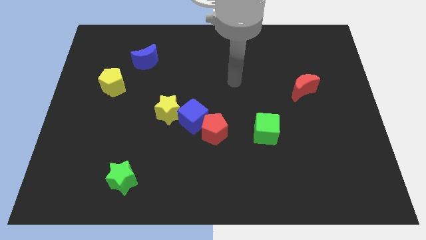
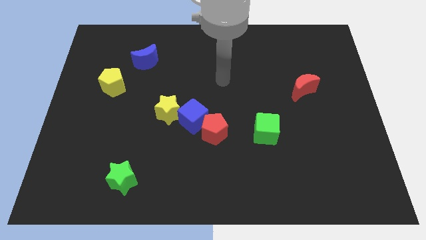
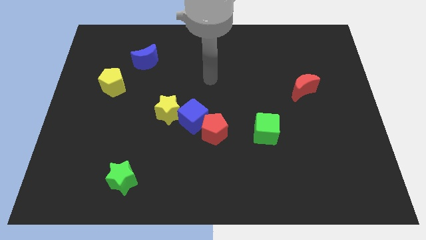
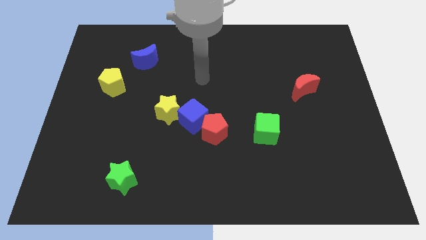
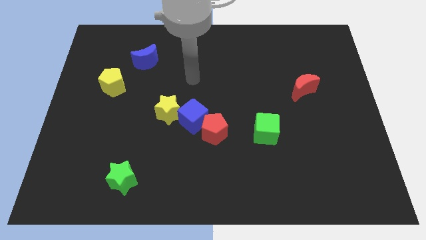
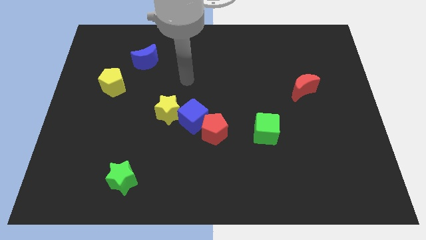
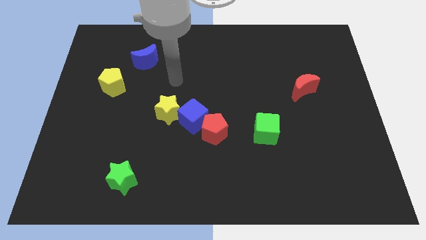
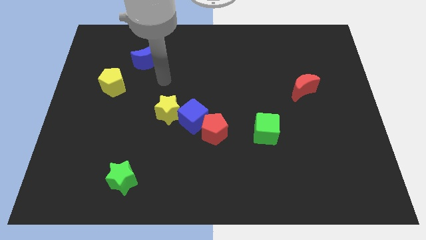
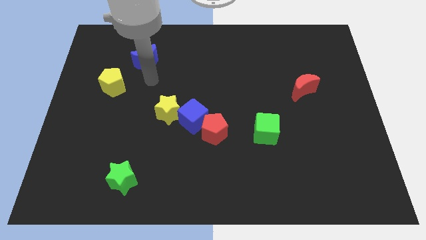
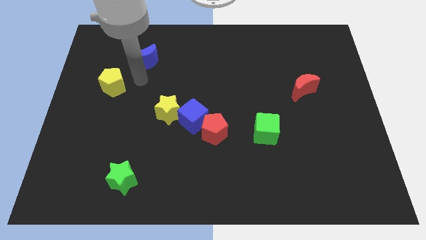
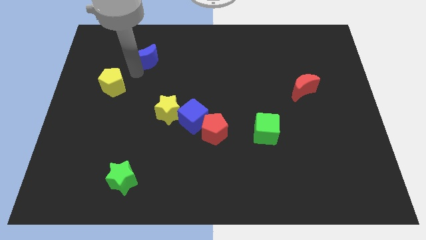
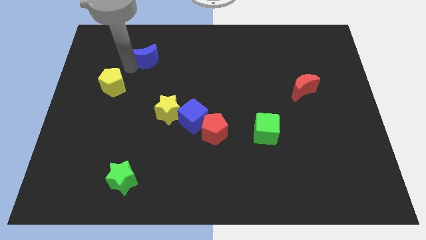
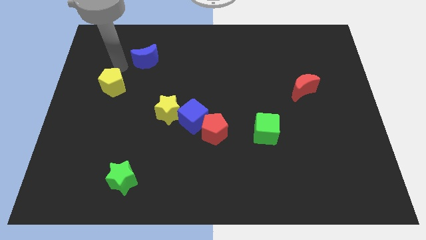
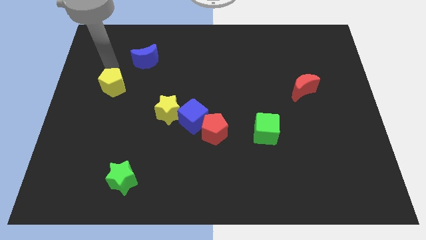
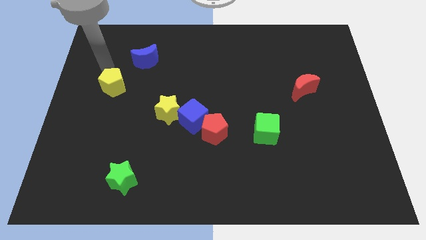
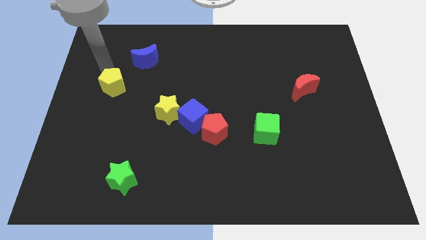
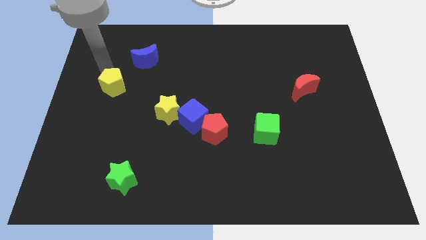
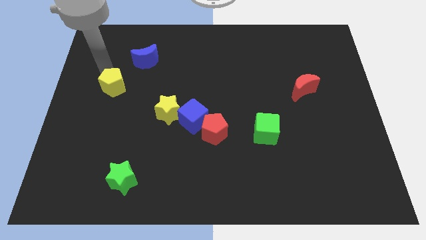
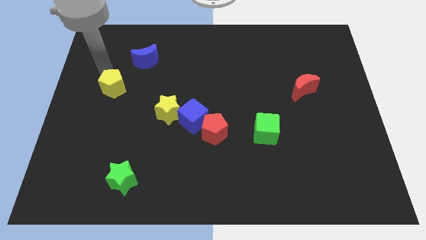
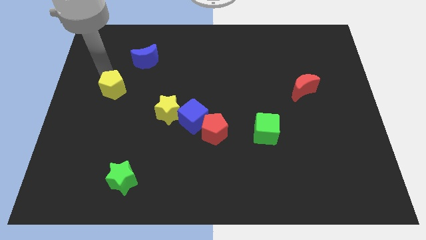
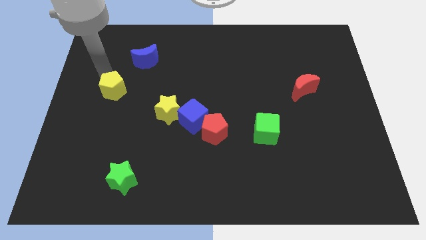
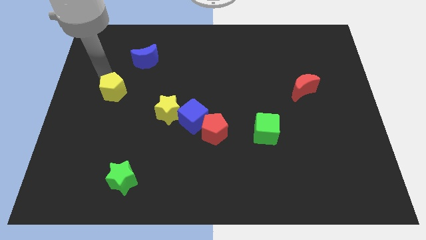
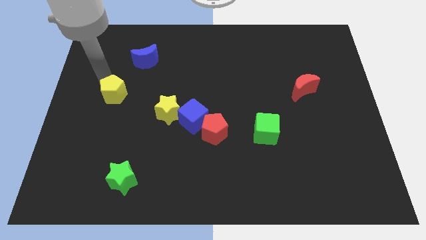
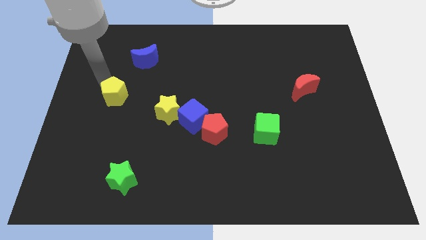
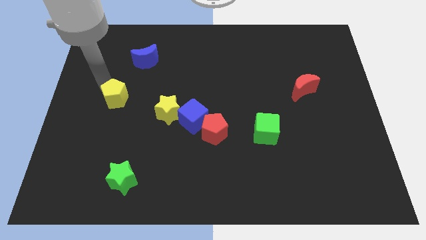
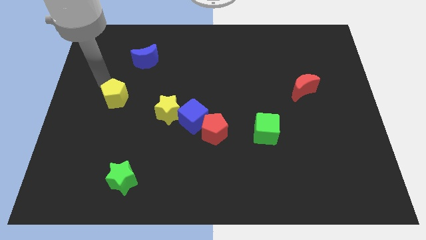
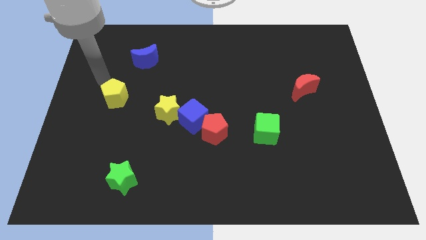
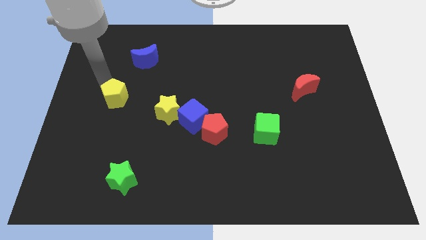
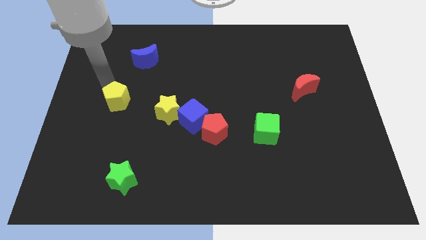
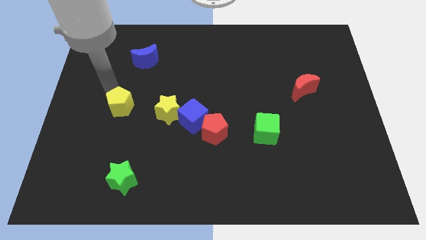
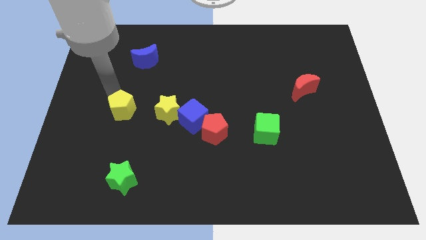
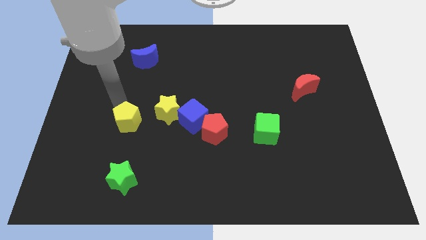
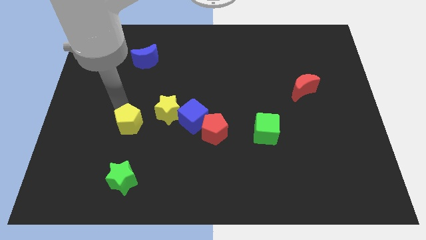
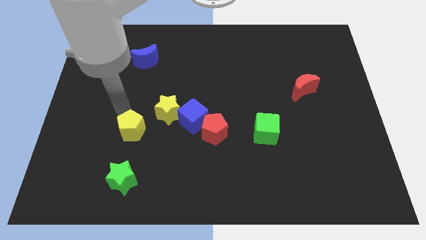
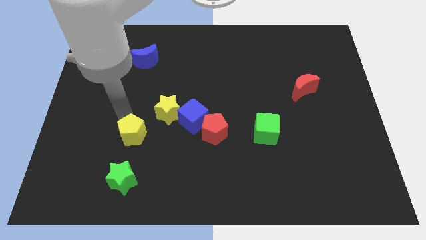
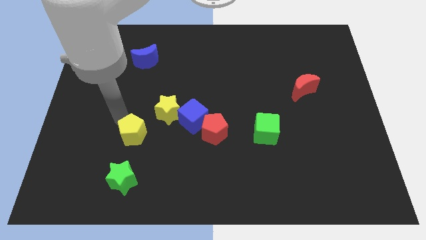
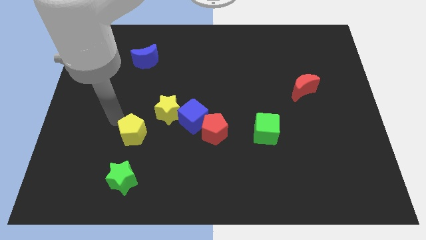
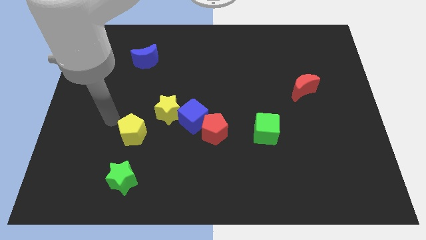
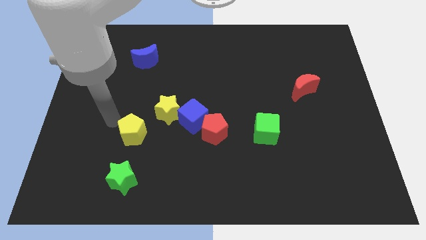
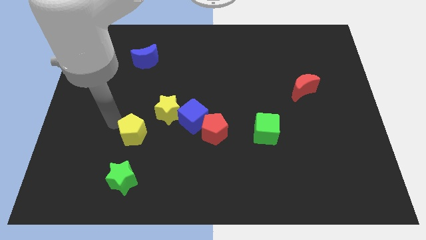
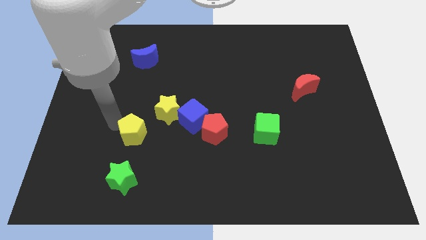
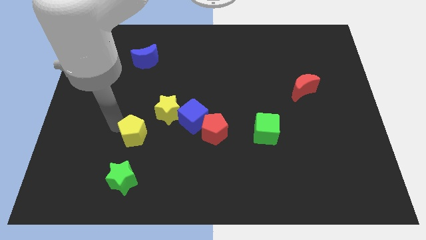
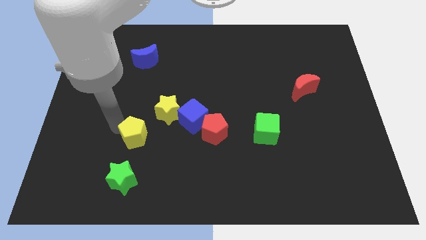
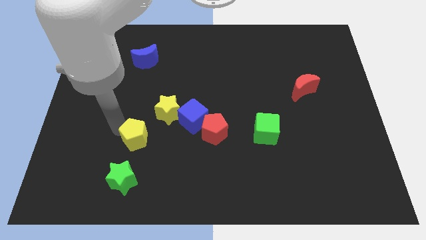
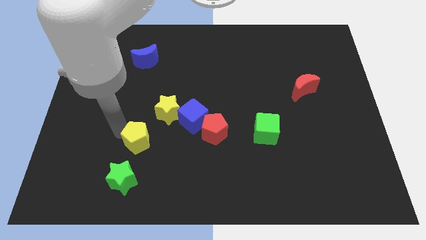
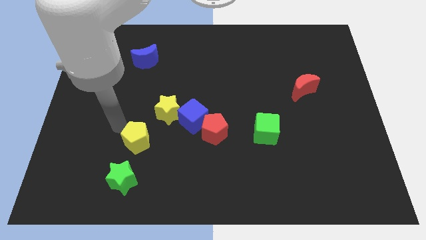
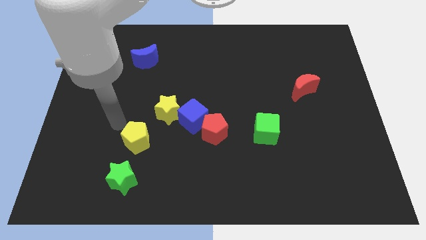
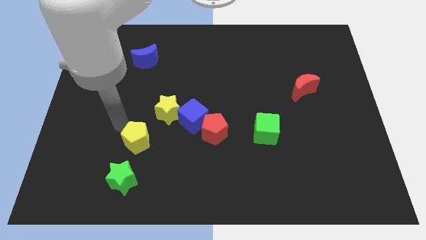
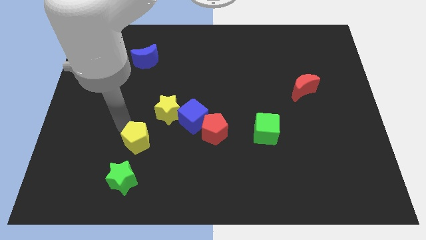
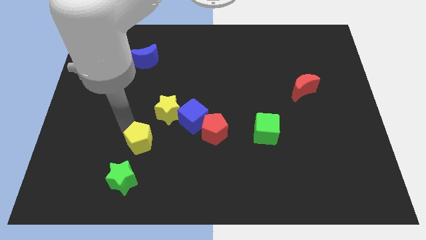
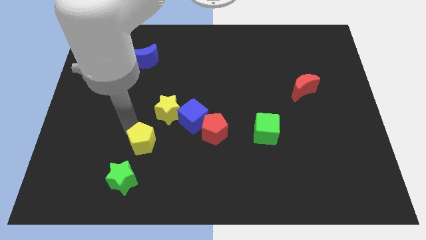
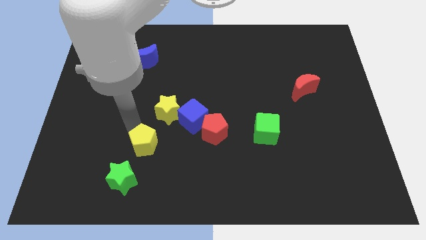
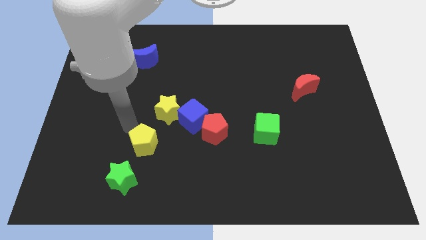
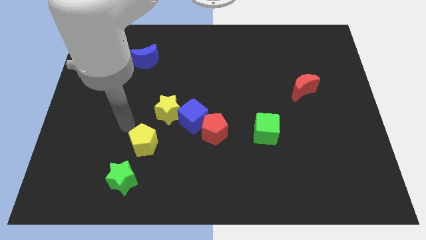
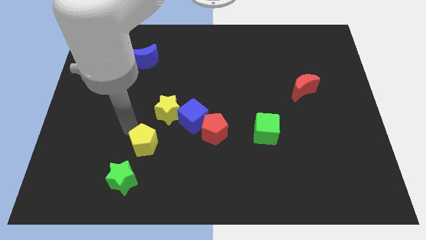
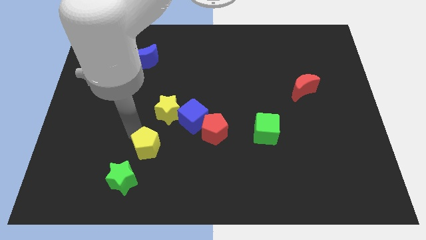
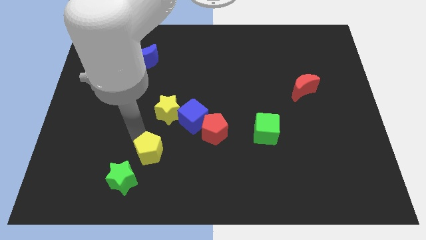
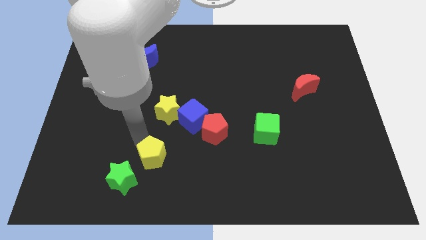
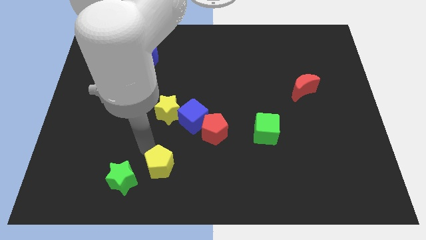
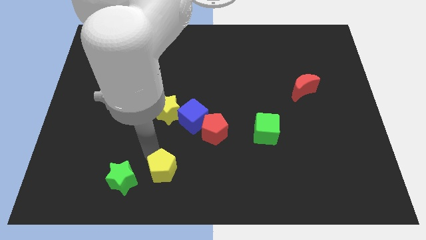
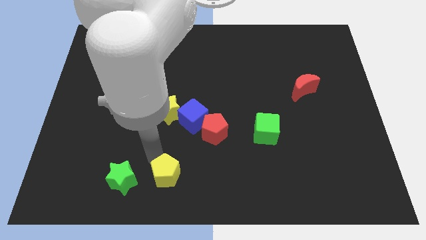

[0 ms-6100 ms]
move the yellow pentagon to the bottom
